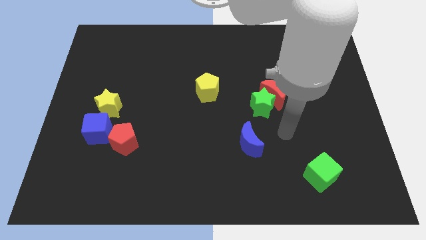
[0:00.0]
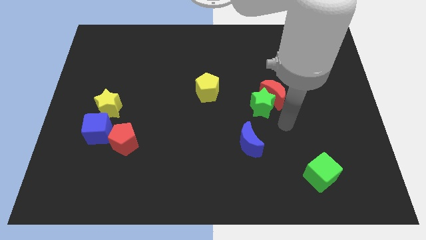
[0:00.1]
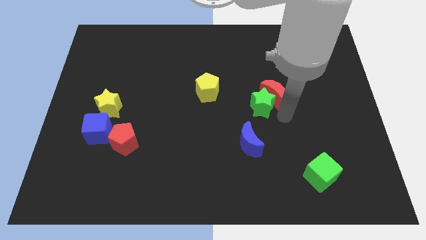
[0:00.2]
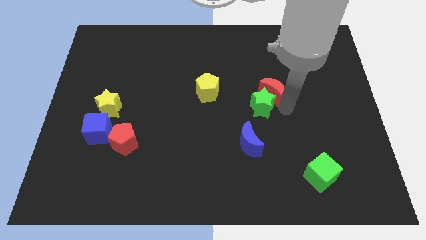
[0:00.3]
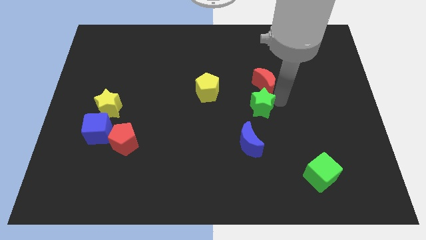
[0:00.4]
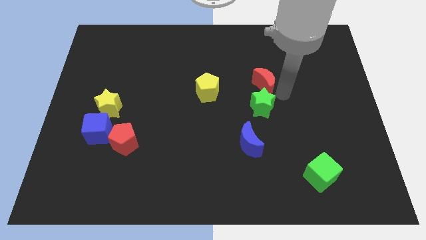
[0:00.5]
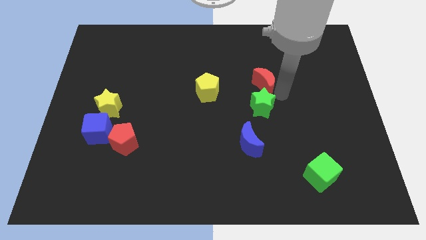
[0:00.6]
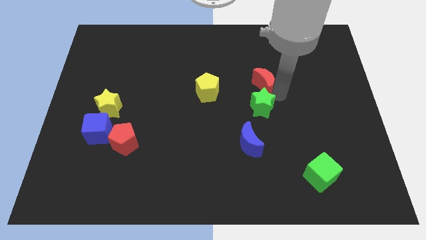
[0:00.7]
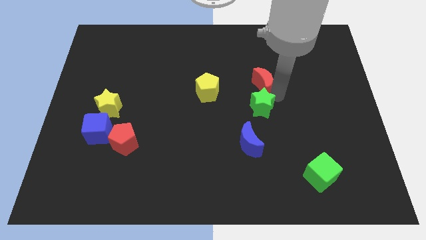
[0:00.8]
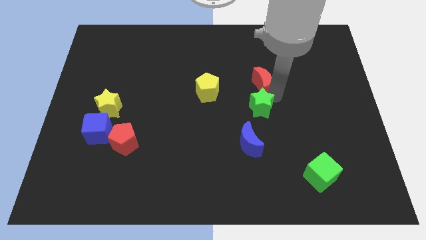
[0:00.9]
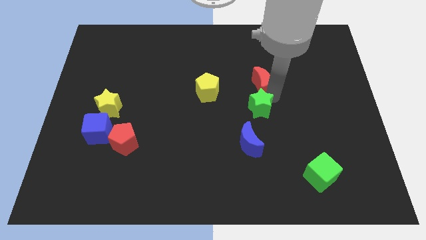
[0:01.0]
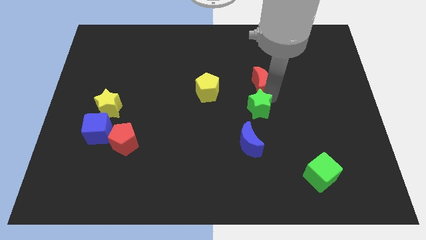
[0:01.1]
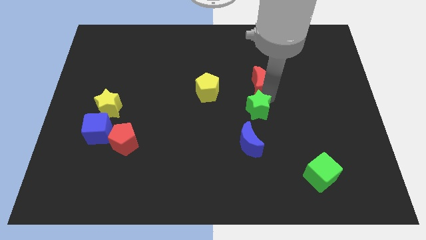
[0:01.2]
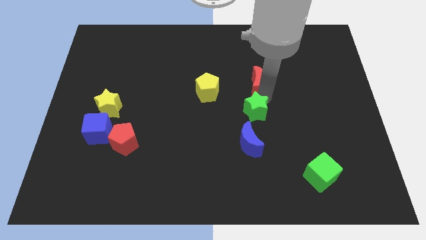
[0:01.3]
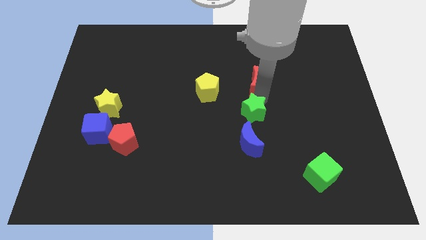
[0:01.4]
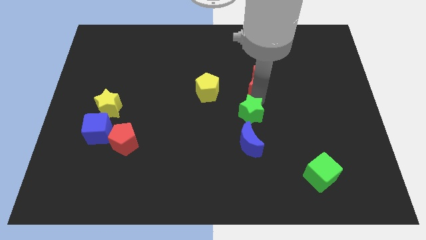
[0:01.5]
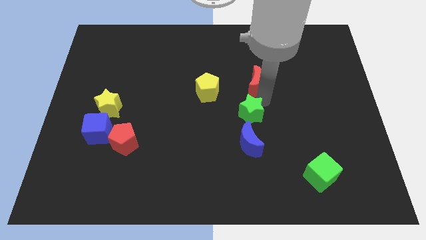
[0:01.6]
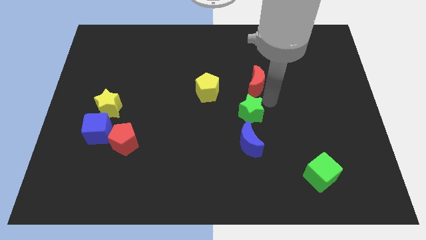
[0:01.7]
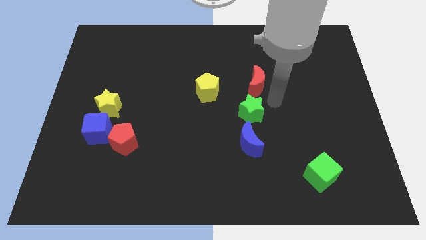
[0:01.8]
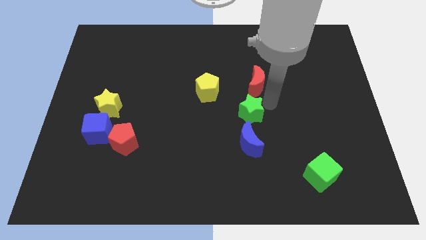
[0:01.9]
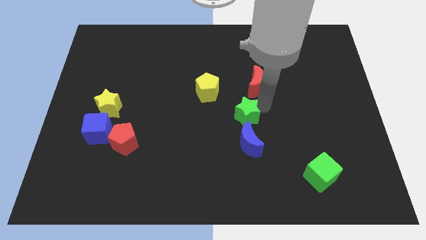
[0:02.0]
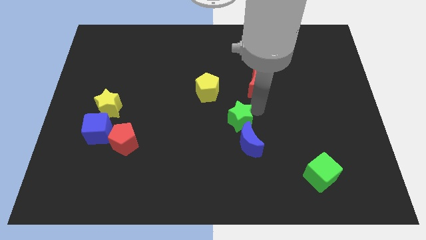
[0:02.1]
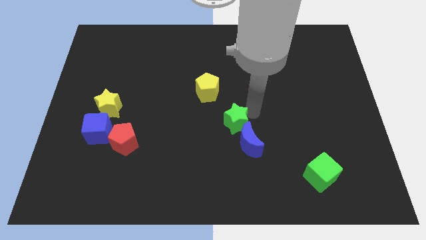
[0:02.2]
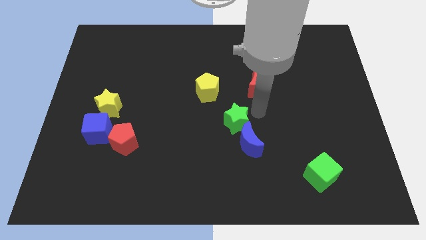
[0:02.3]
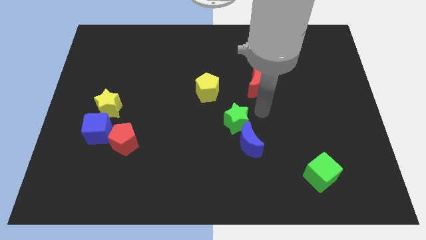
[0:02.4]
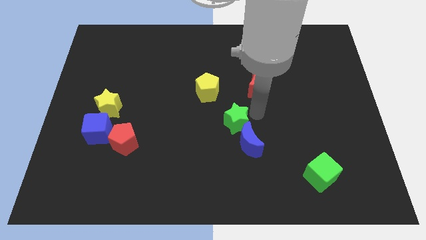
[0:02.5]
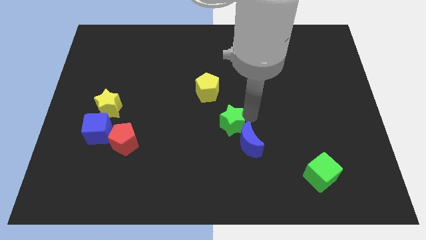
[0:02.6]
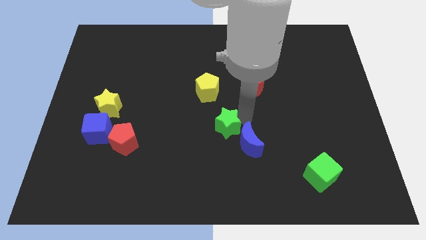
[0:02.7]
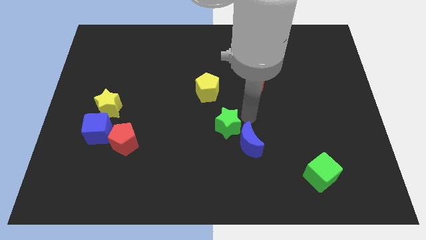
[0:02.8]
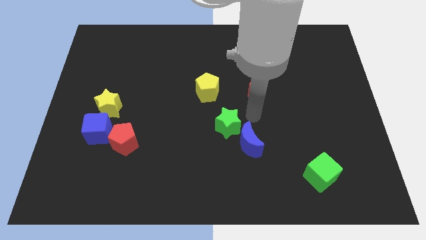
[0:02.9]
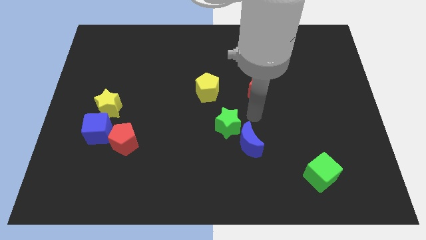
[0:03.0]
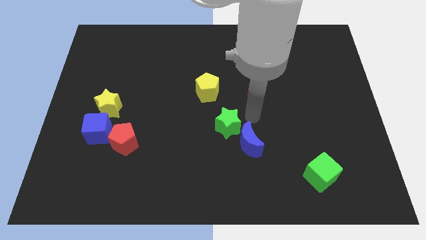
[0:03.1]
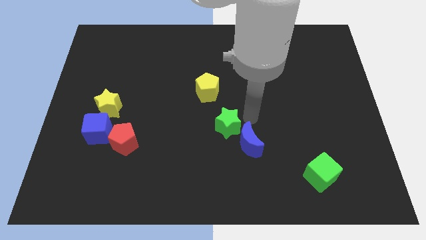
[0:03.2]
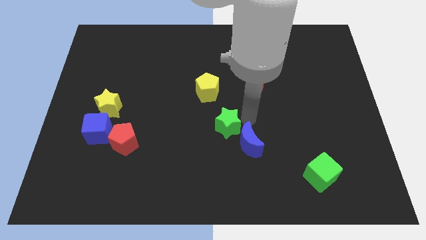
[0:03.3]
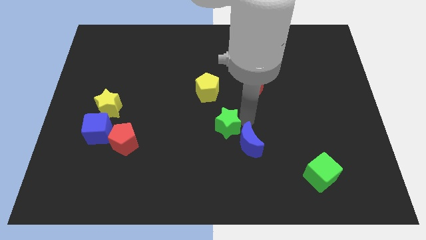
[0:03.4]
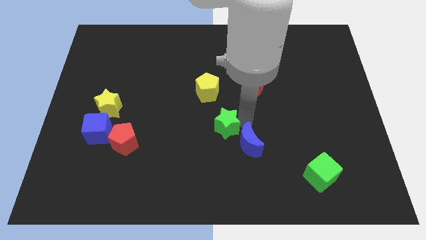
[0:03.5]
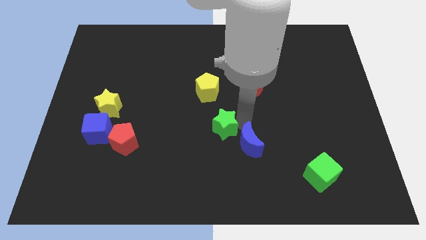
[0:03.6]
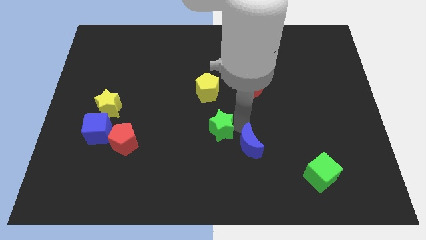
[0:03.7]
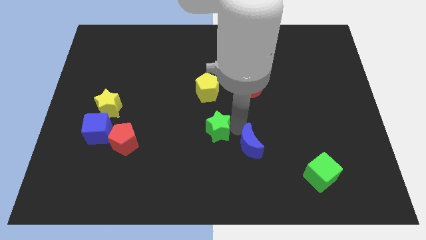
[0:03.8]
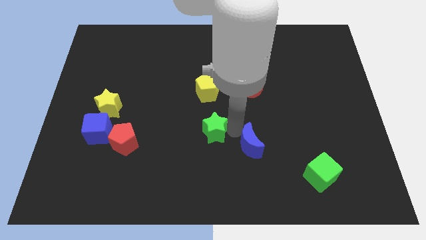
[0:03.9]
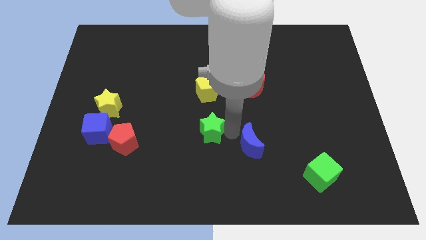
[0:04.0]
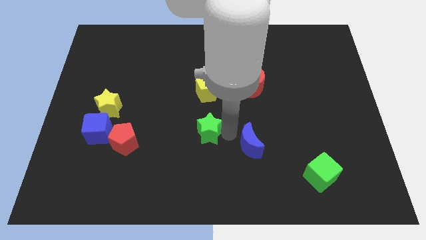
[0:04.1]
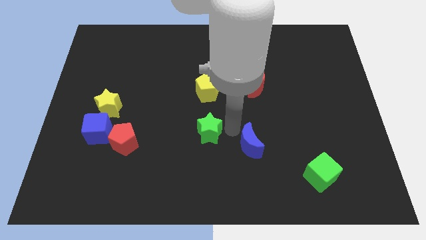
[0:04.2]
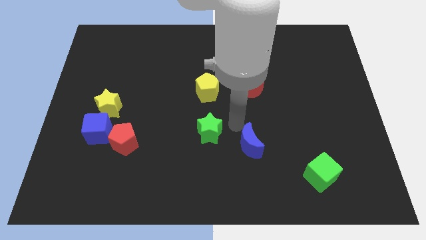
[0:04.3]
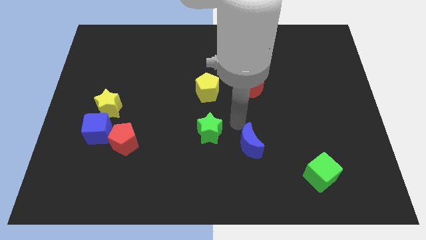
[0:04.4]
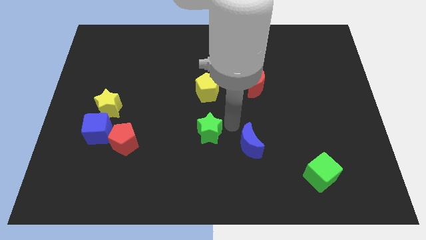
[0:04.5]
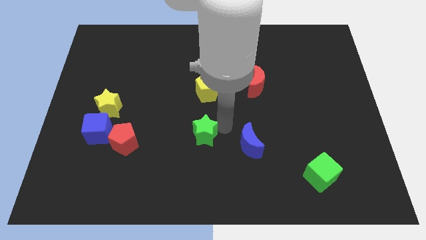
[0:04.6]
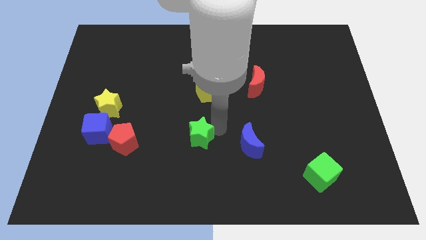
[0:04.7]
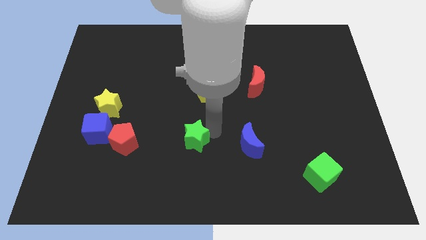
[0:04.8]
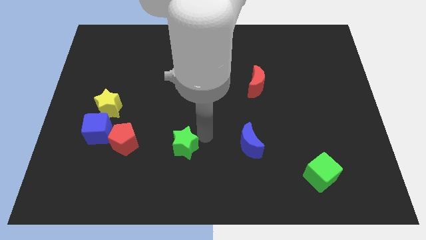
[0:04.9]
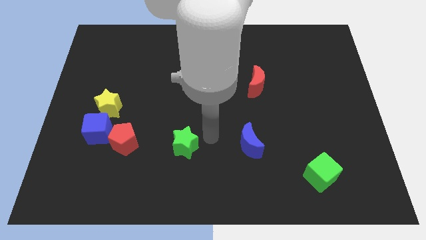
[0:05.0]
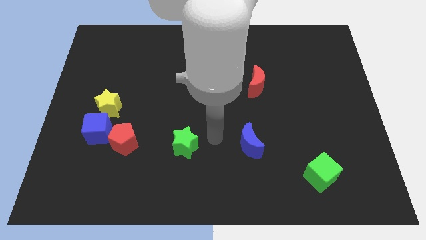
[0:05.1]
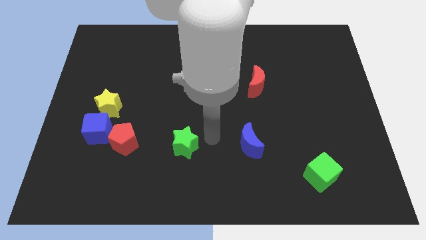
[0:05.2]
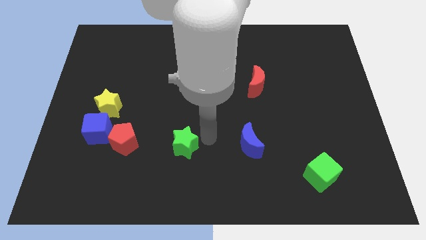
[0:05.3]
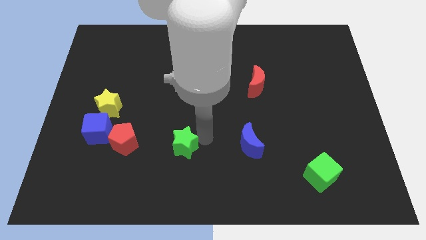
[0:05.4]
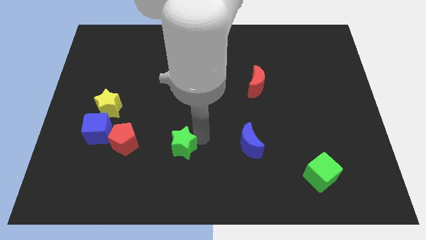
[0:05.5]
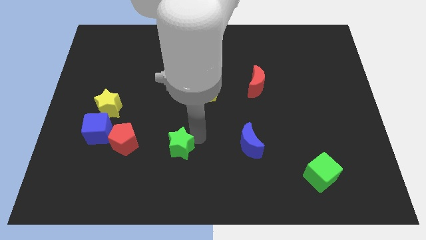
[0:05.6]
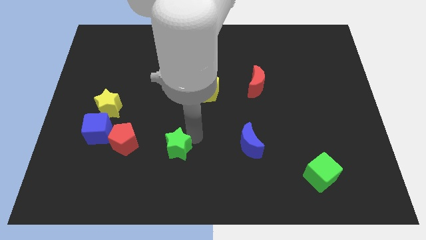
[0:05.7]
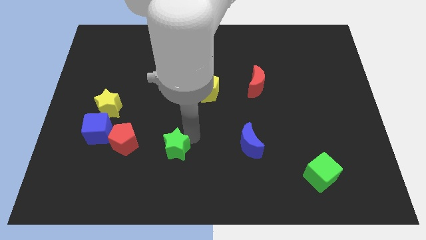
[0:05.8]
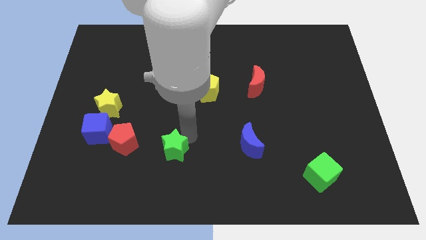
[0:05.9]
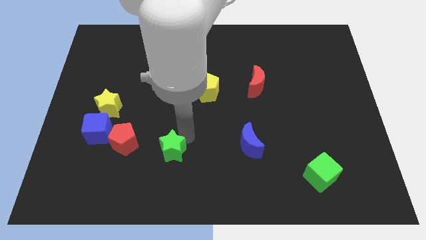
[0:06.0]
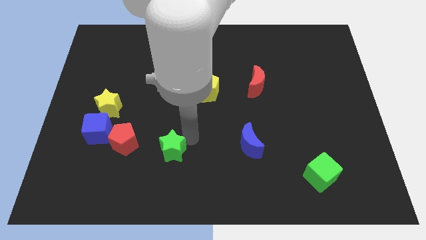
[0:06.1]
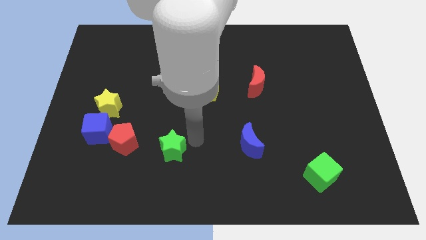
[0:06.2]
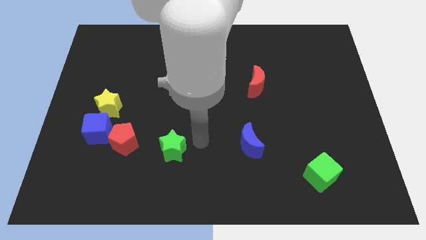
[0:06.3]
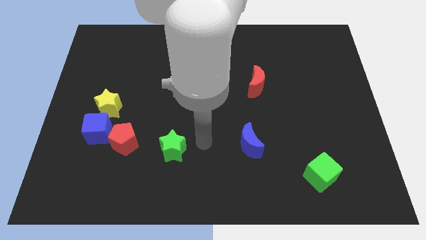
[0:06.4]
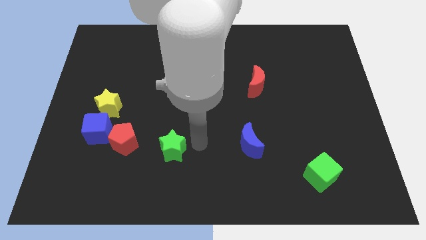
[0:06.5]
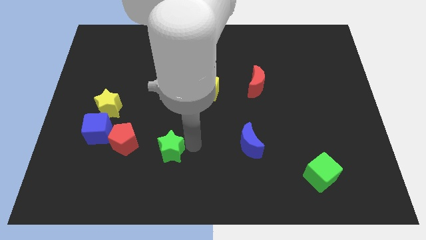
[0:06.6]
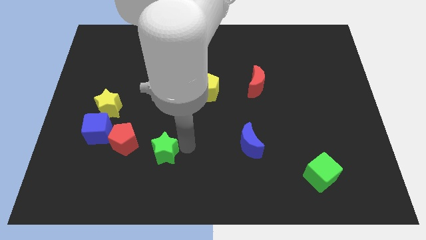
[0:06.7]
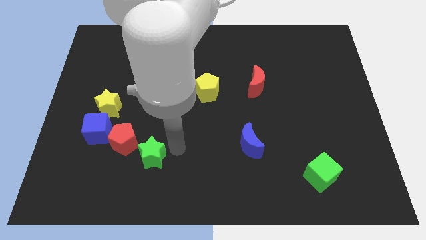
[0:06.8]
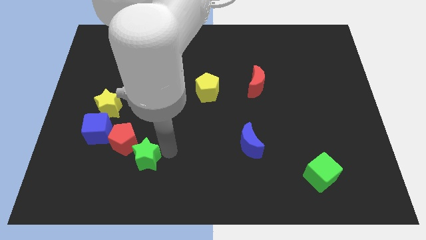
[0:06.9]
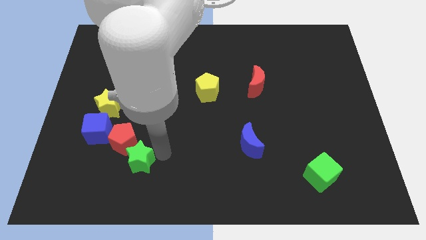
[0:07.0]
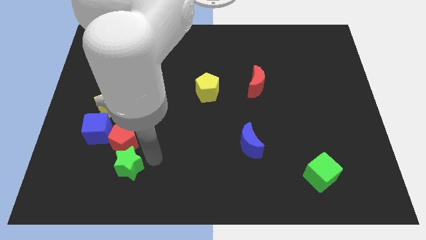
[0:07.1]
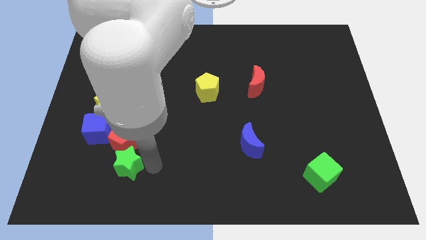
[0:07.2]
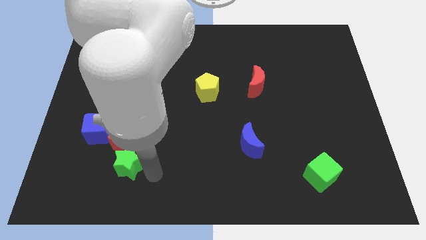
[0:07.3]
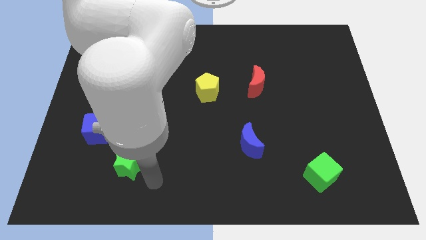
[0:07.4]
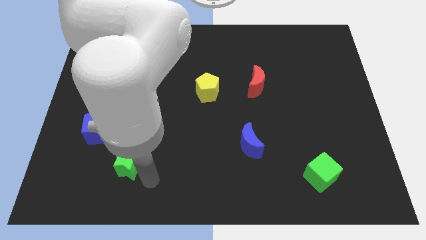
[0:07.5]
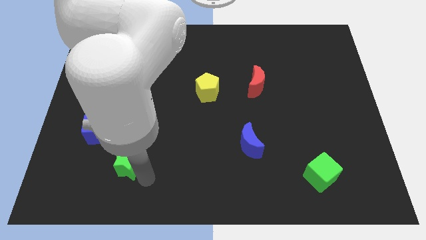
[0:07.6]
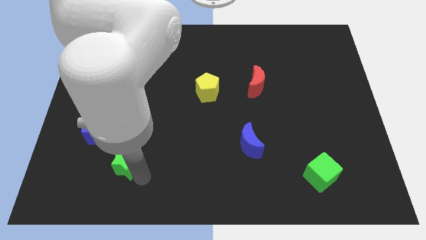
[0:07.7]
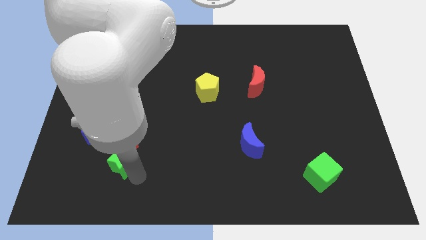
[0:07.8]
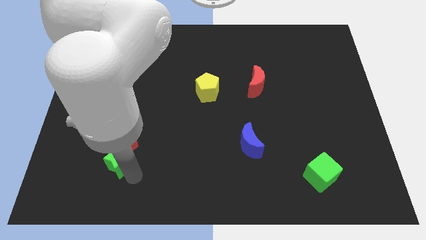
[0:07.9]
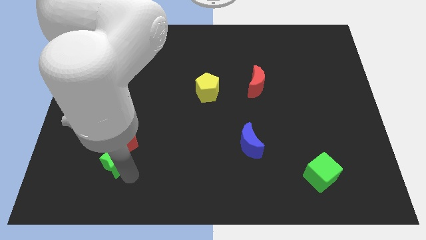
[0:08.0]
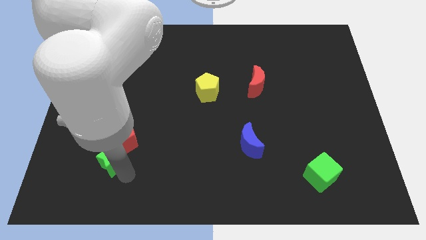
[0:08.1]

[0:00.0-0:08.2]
push the green star to the bottom of the yellow star
